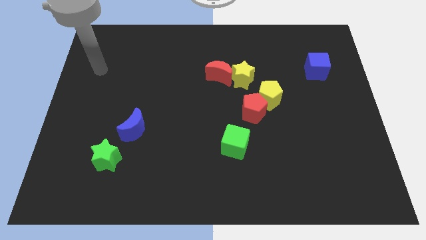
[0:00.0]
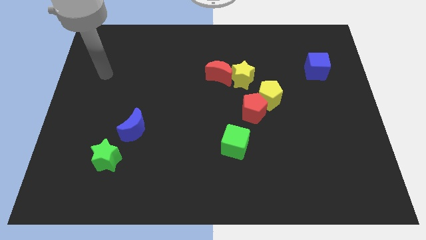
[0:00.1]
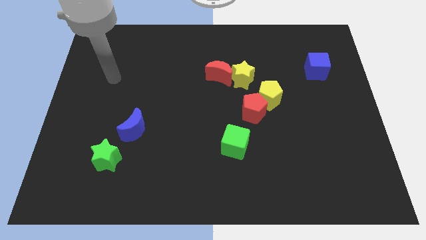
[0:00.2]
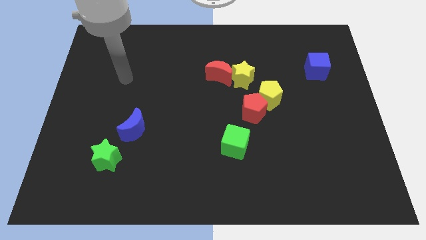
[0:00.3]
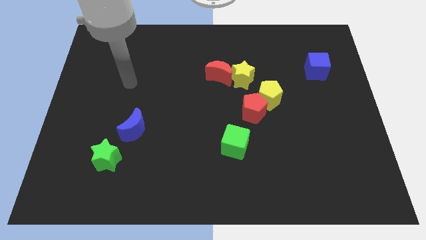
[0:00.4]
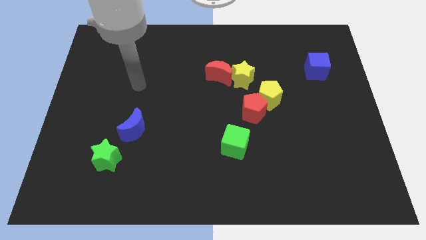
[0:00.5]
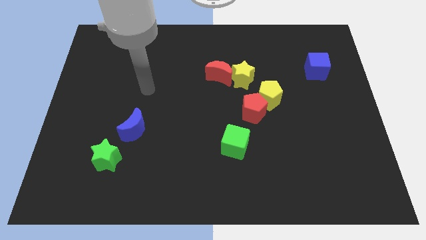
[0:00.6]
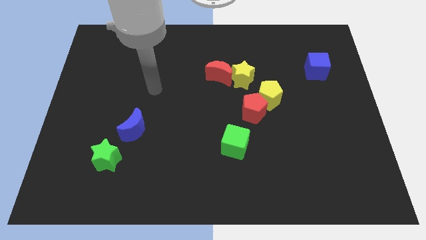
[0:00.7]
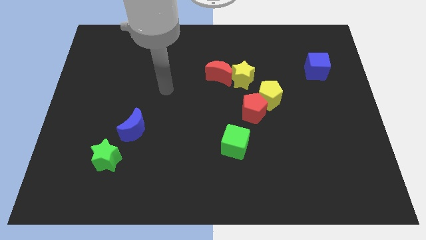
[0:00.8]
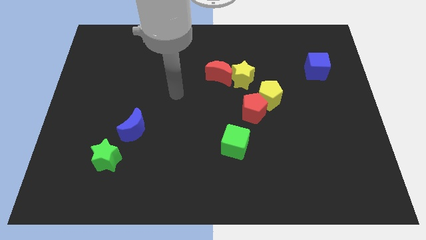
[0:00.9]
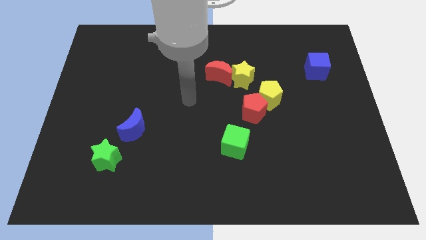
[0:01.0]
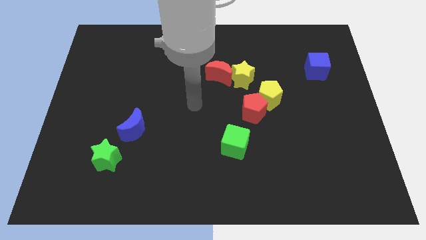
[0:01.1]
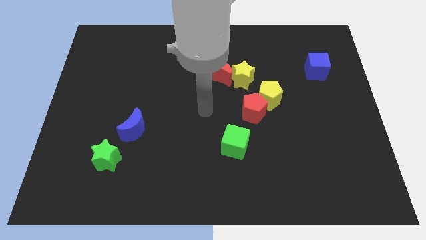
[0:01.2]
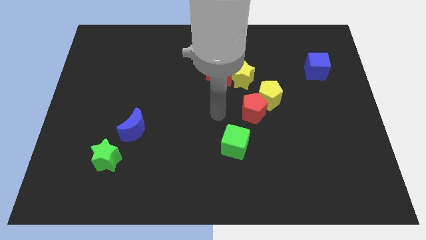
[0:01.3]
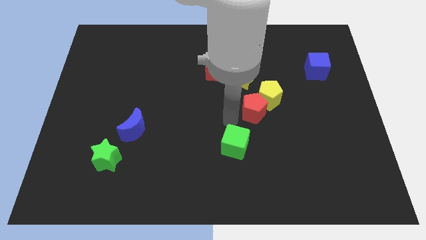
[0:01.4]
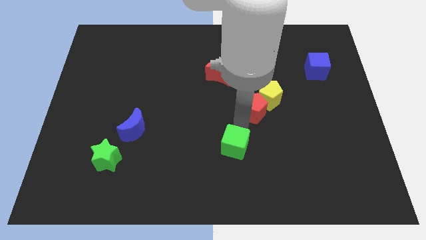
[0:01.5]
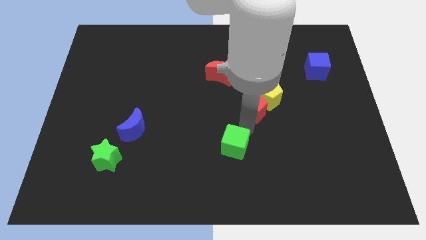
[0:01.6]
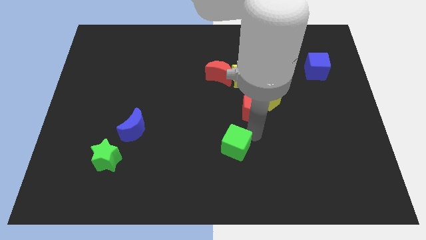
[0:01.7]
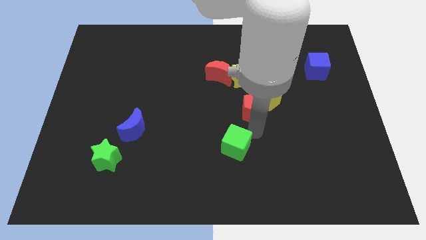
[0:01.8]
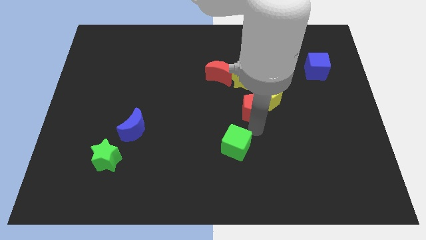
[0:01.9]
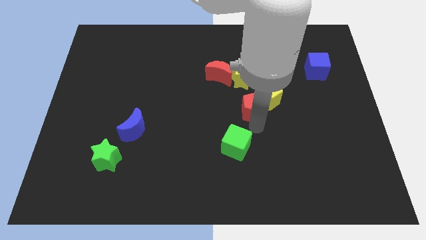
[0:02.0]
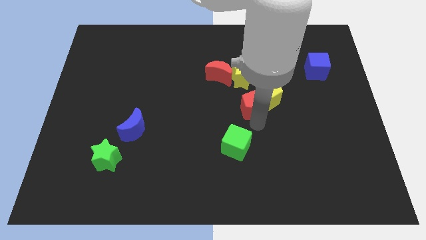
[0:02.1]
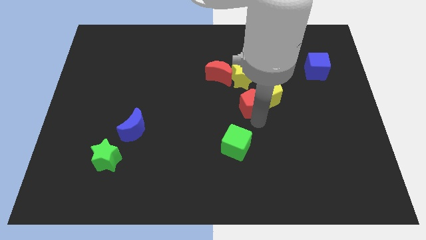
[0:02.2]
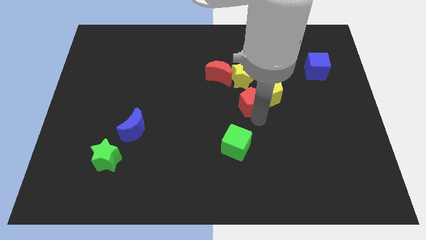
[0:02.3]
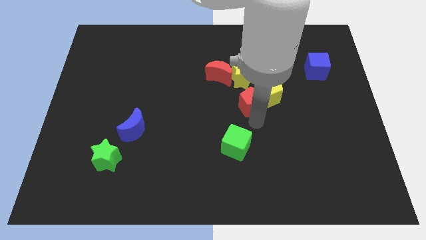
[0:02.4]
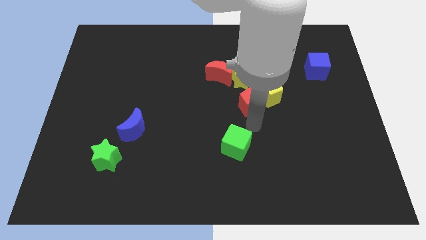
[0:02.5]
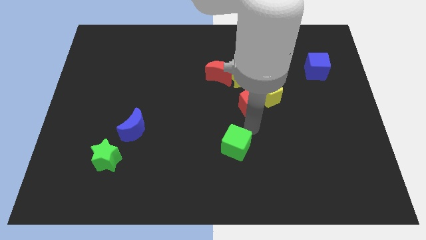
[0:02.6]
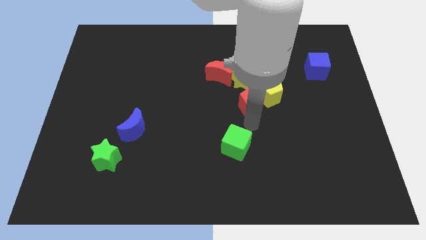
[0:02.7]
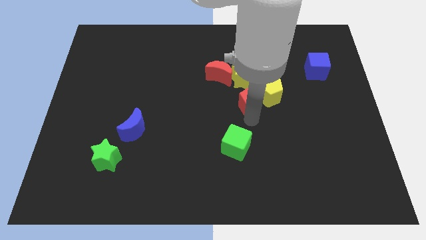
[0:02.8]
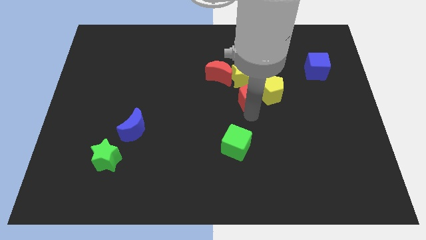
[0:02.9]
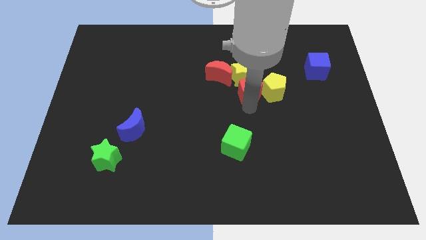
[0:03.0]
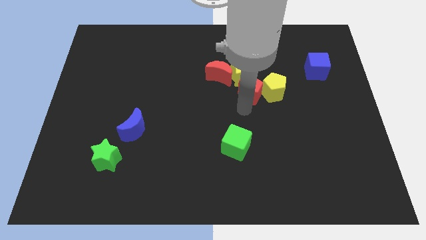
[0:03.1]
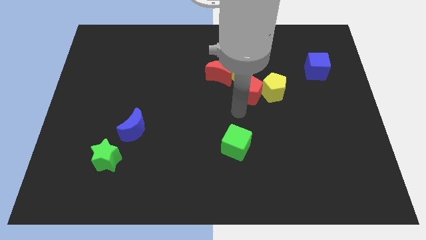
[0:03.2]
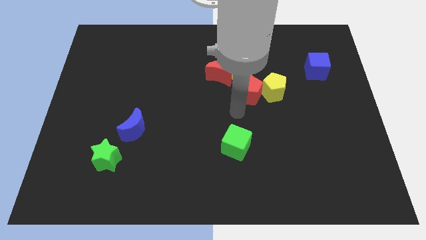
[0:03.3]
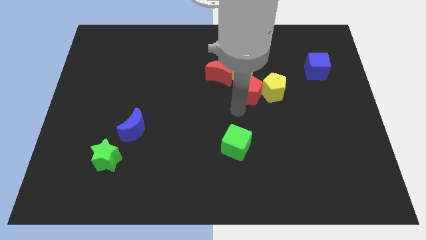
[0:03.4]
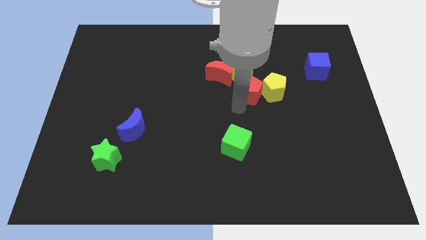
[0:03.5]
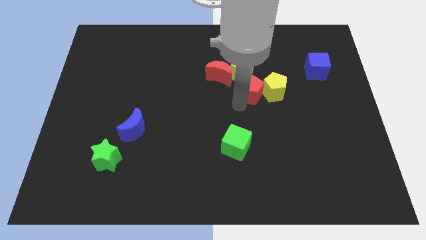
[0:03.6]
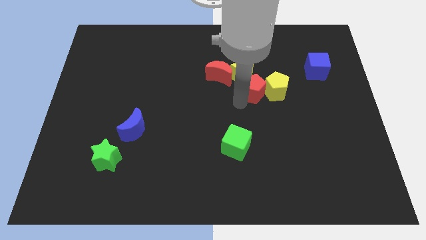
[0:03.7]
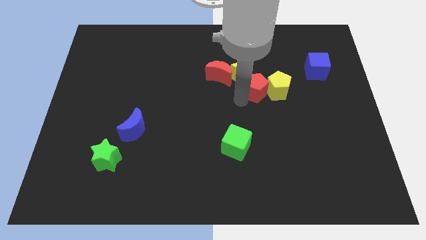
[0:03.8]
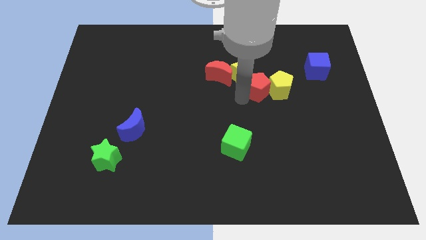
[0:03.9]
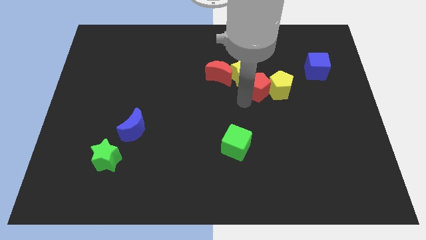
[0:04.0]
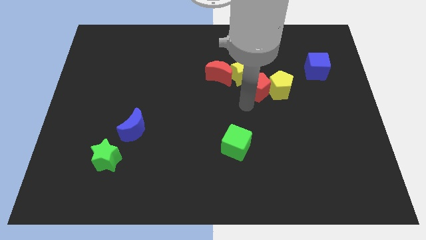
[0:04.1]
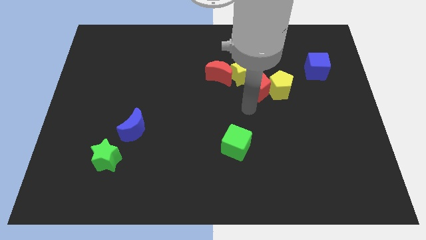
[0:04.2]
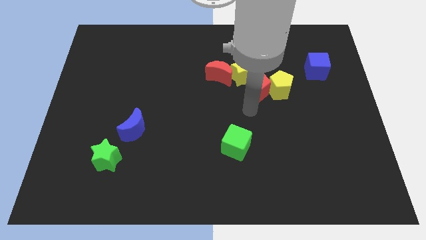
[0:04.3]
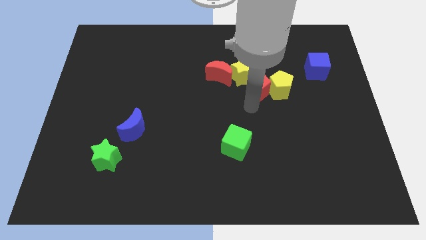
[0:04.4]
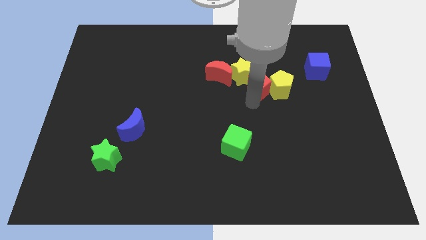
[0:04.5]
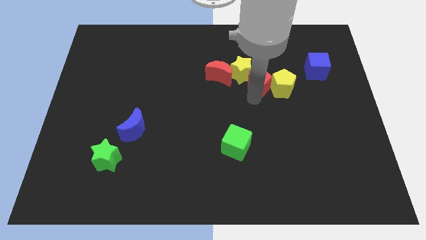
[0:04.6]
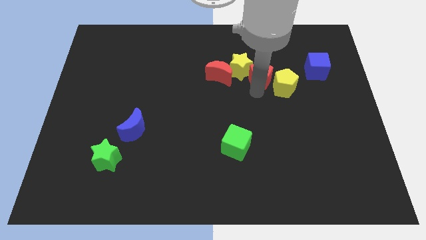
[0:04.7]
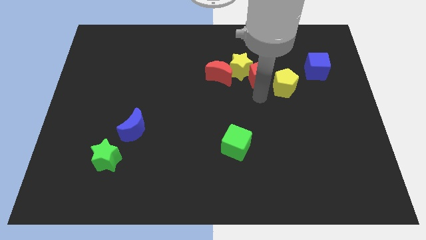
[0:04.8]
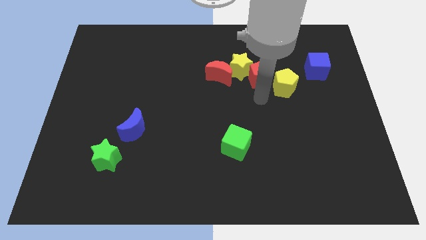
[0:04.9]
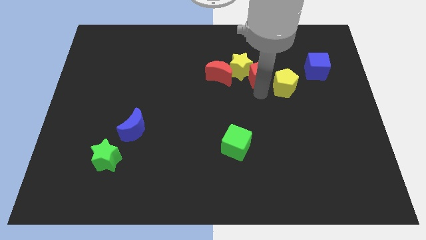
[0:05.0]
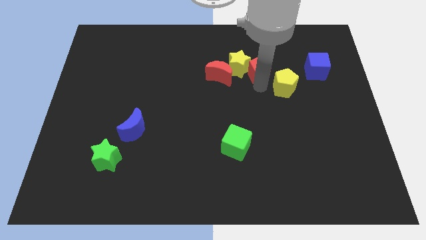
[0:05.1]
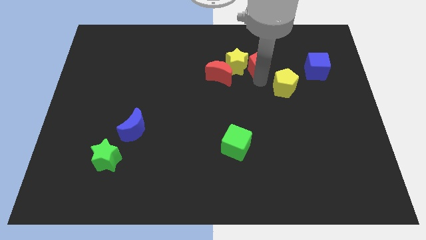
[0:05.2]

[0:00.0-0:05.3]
push the red pentagon to the top right of the yellow star
